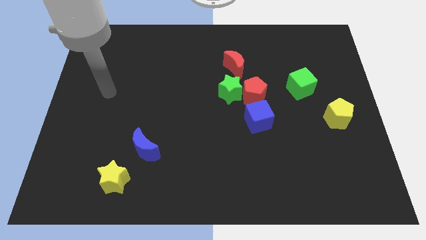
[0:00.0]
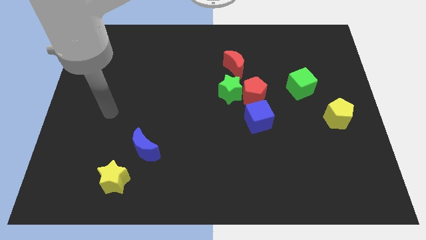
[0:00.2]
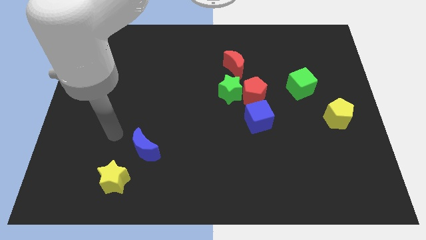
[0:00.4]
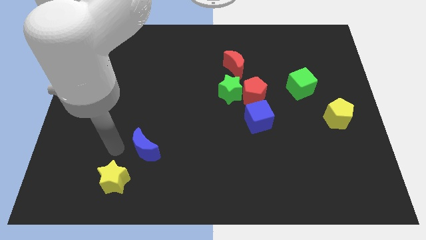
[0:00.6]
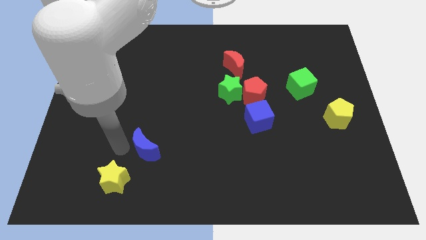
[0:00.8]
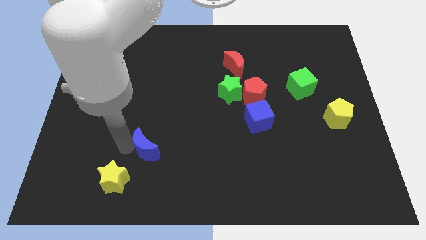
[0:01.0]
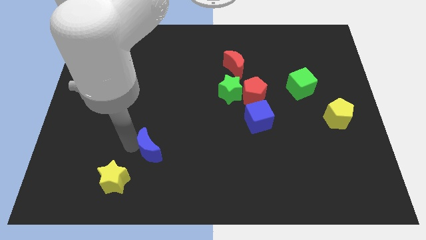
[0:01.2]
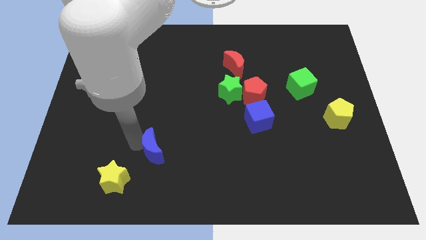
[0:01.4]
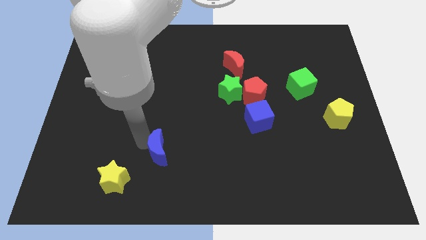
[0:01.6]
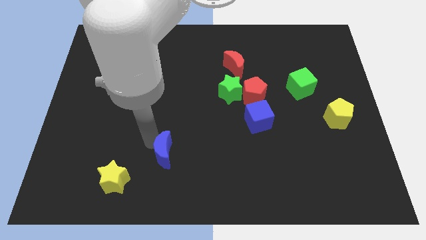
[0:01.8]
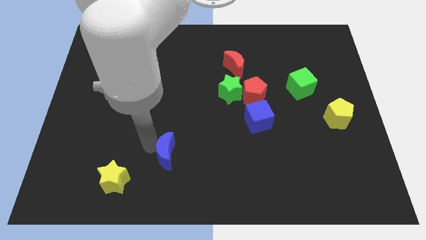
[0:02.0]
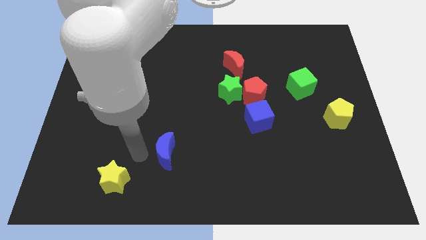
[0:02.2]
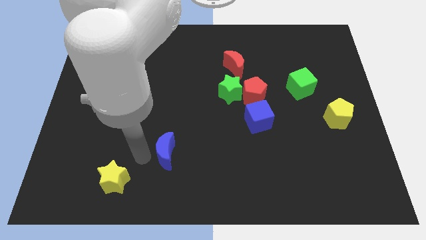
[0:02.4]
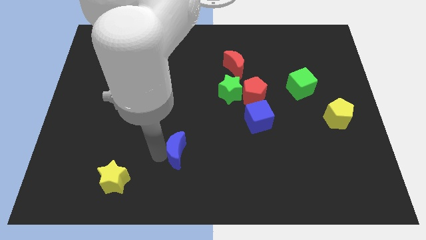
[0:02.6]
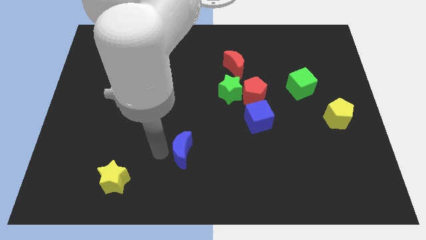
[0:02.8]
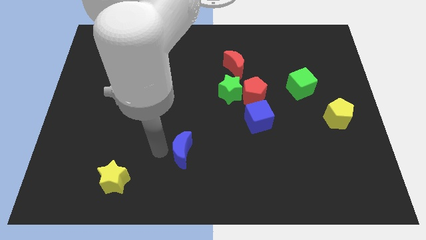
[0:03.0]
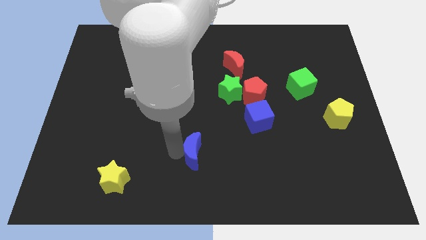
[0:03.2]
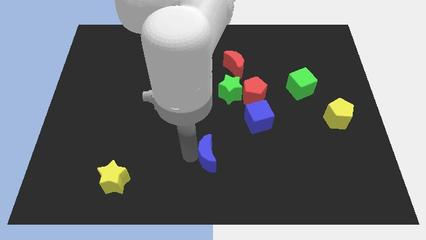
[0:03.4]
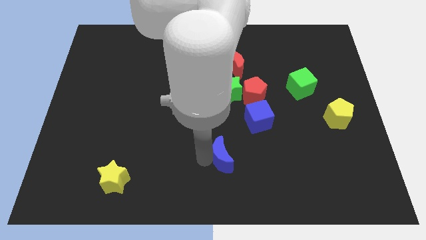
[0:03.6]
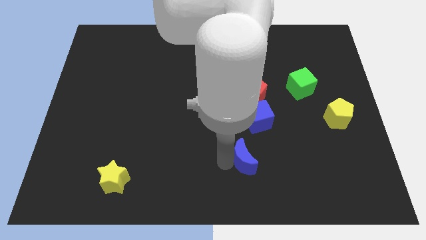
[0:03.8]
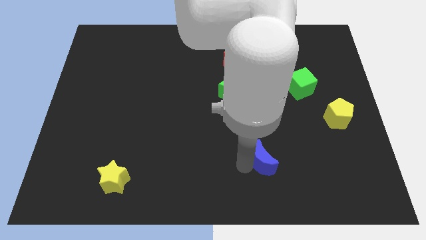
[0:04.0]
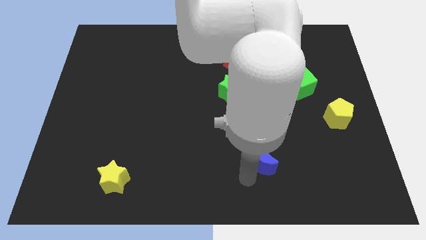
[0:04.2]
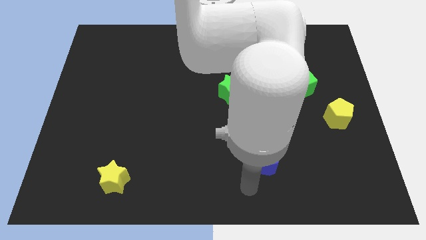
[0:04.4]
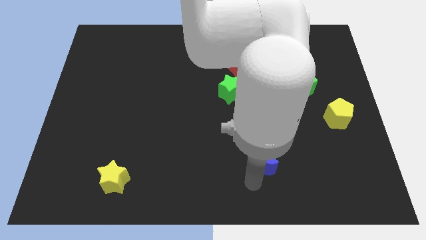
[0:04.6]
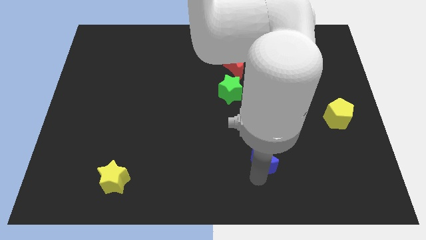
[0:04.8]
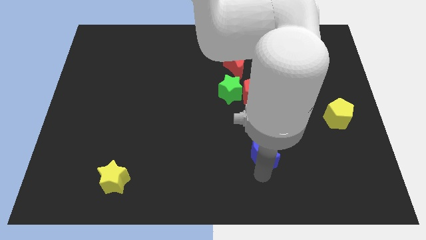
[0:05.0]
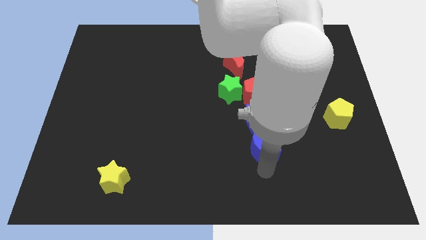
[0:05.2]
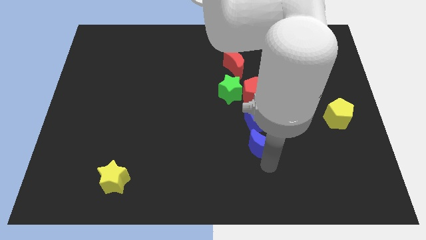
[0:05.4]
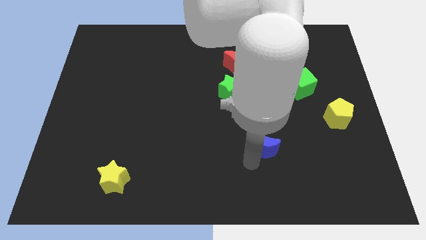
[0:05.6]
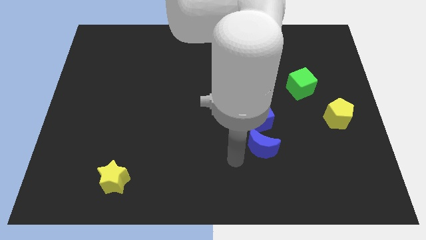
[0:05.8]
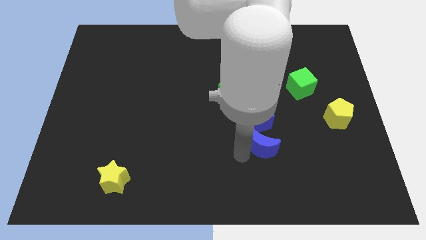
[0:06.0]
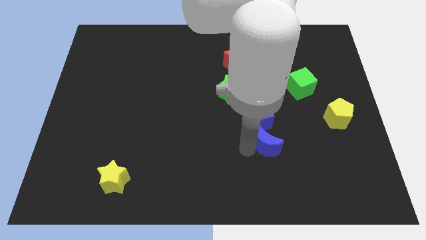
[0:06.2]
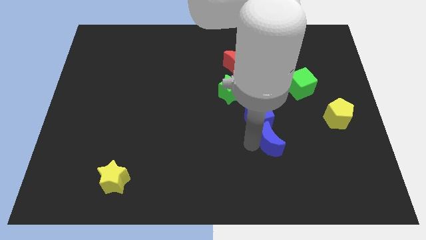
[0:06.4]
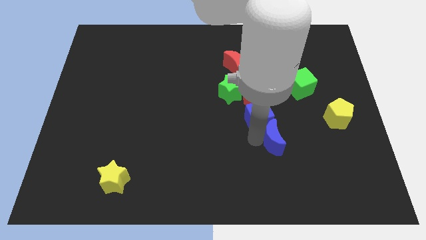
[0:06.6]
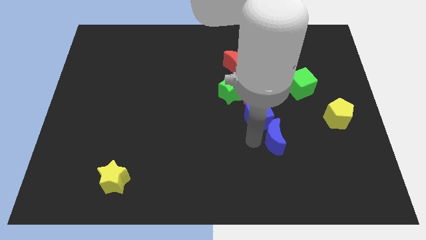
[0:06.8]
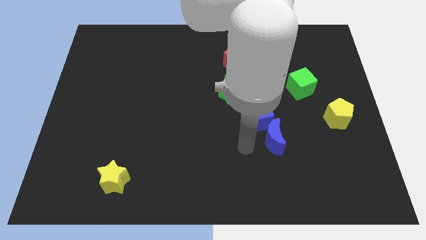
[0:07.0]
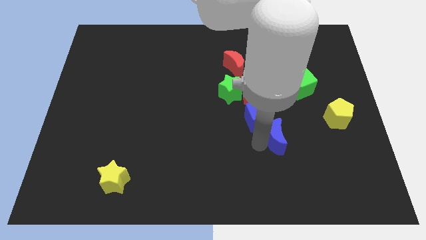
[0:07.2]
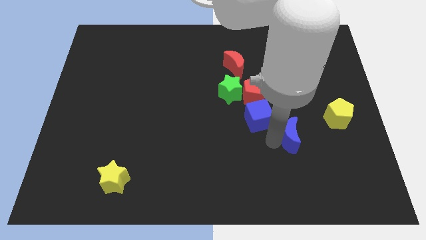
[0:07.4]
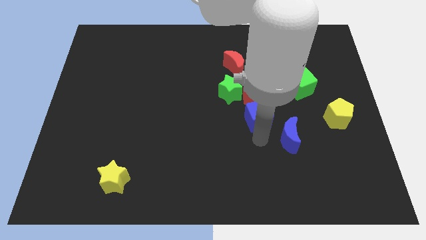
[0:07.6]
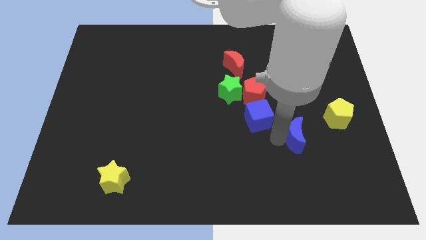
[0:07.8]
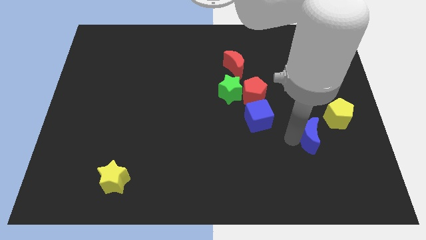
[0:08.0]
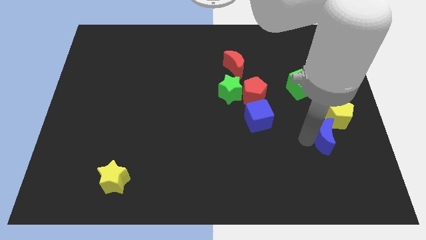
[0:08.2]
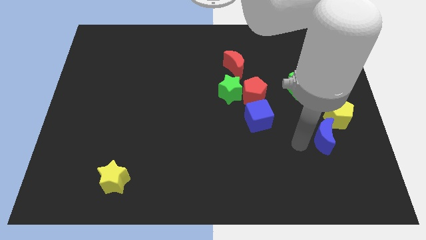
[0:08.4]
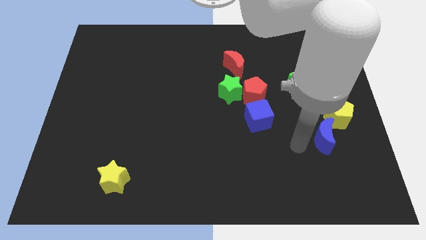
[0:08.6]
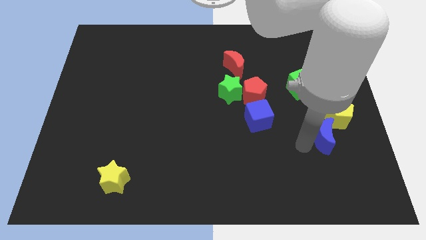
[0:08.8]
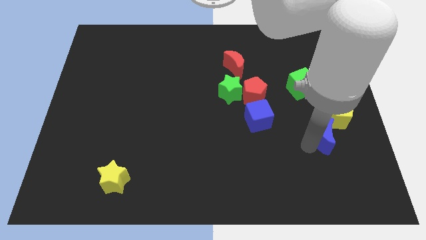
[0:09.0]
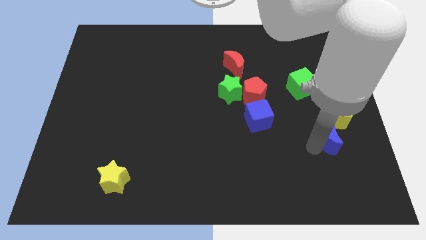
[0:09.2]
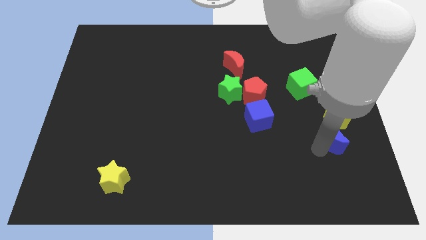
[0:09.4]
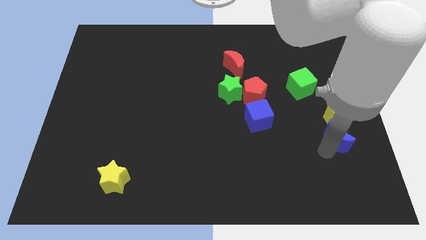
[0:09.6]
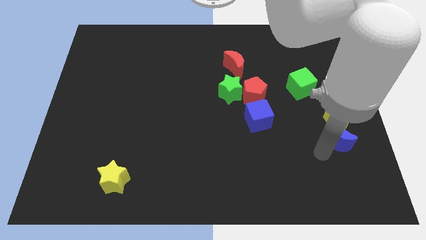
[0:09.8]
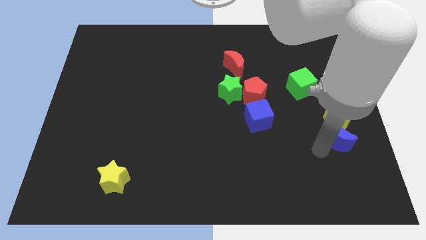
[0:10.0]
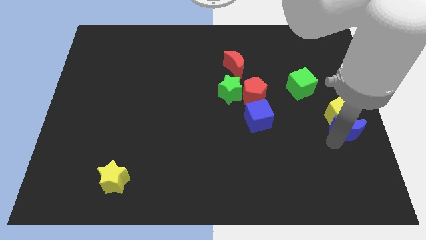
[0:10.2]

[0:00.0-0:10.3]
slide the blue moon to the right side

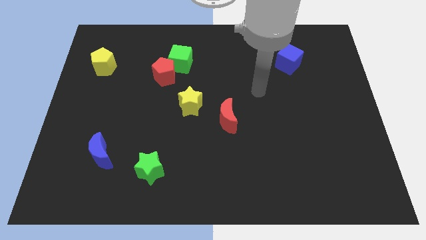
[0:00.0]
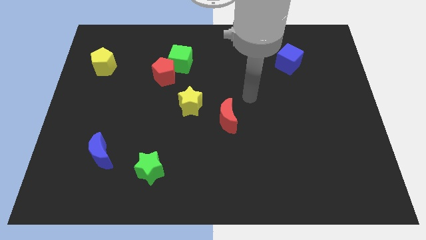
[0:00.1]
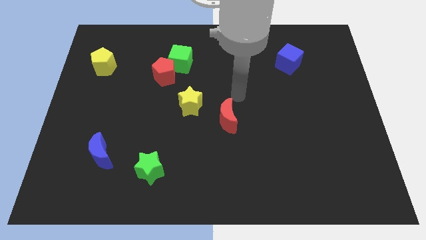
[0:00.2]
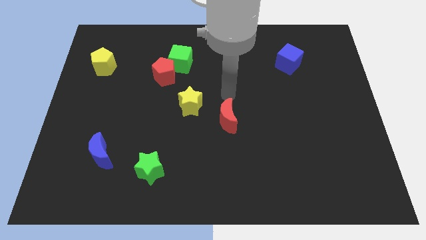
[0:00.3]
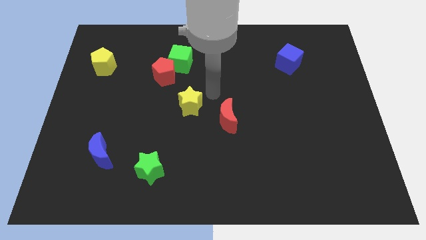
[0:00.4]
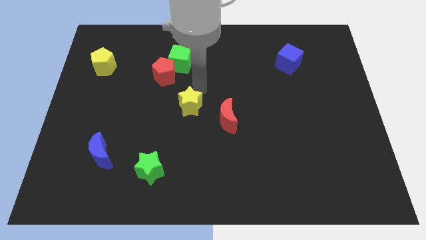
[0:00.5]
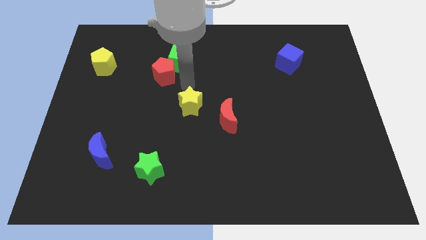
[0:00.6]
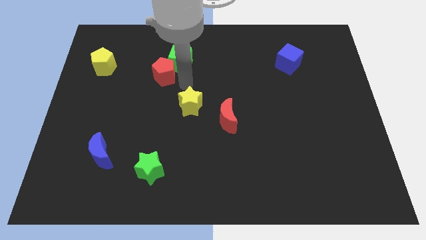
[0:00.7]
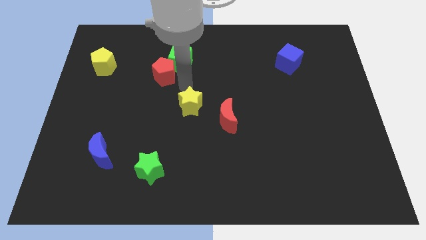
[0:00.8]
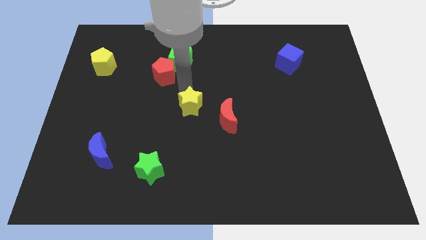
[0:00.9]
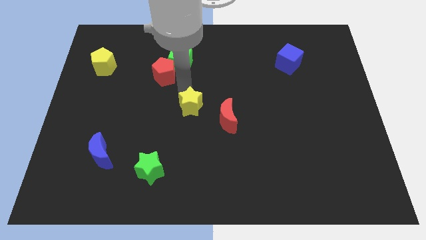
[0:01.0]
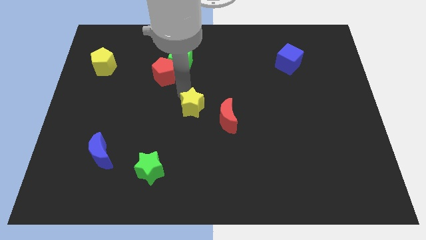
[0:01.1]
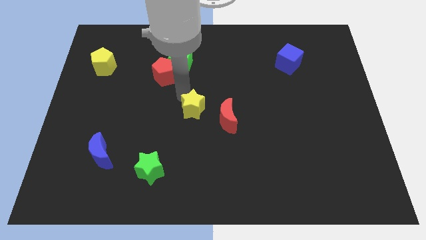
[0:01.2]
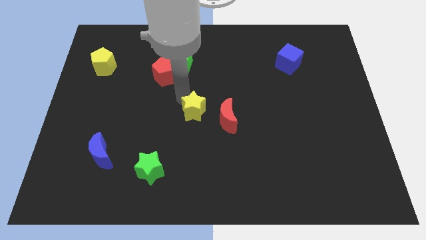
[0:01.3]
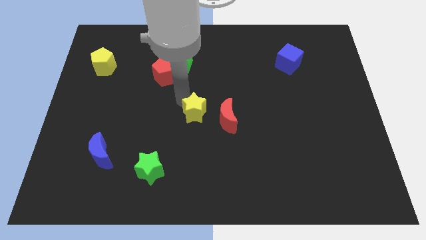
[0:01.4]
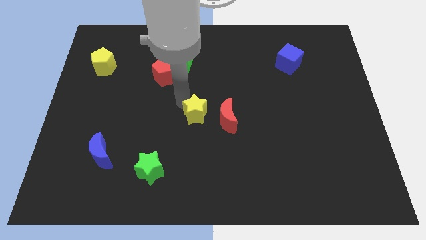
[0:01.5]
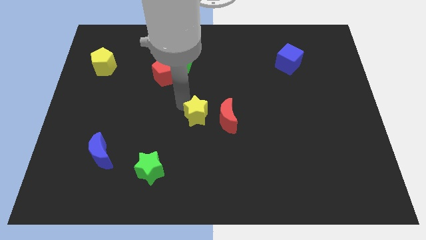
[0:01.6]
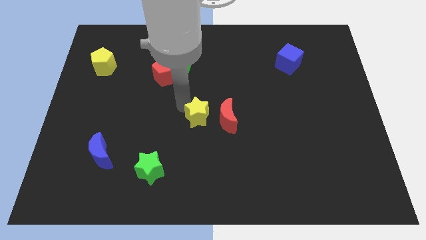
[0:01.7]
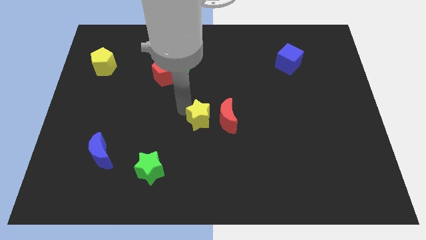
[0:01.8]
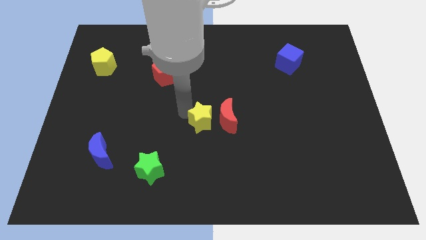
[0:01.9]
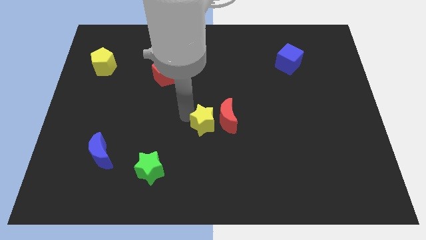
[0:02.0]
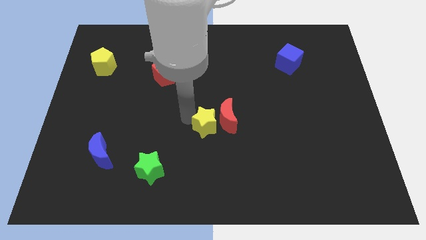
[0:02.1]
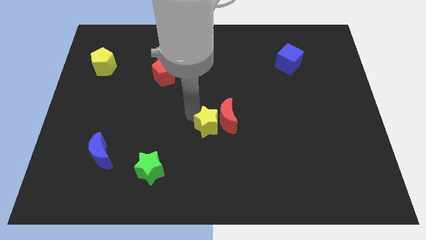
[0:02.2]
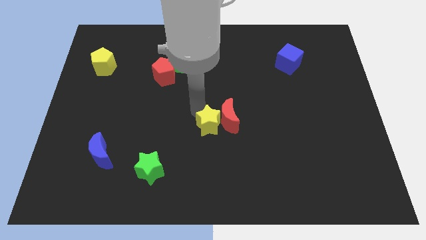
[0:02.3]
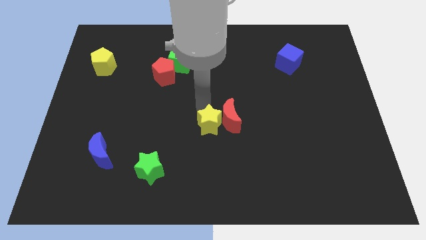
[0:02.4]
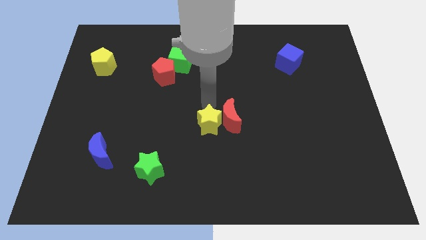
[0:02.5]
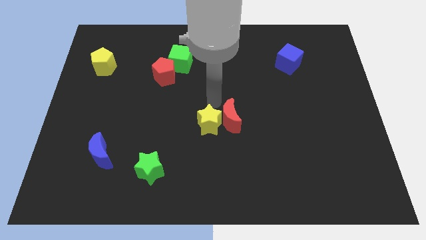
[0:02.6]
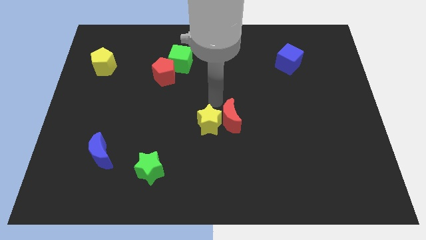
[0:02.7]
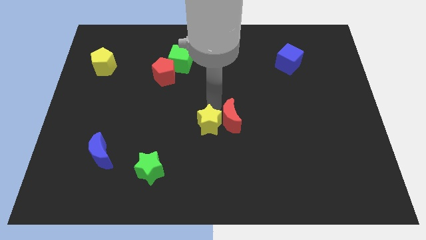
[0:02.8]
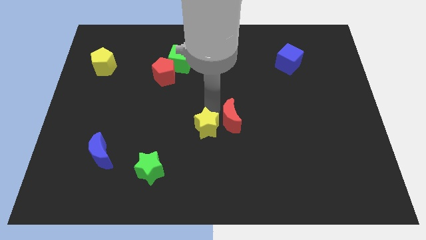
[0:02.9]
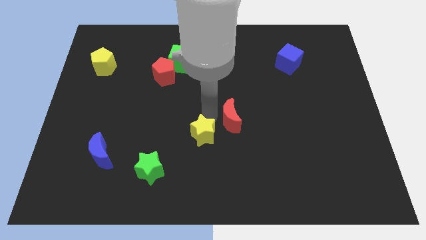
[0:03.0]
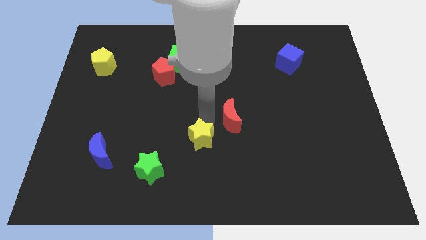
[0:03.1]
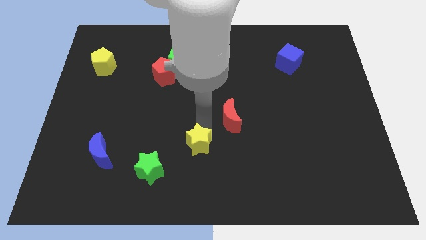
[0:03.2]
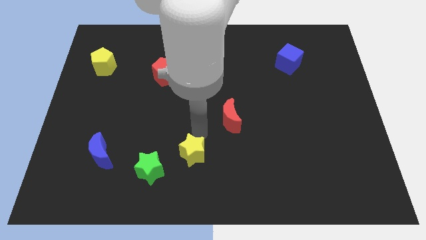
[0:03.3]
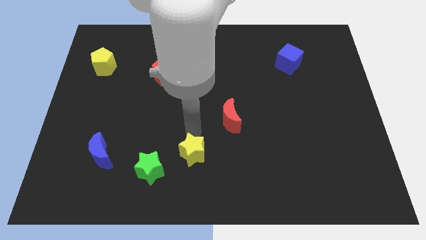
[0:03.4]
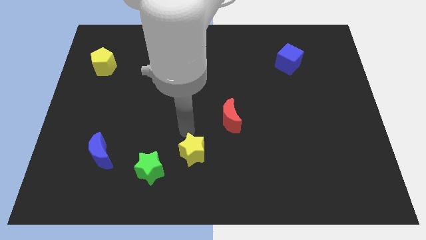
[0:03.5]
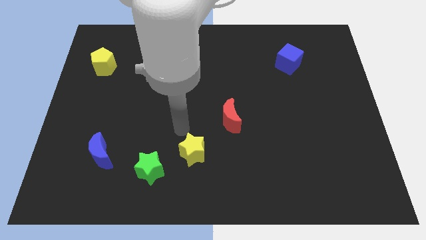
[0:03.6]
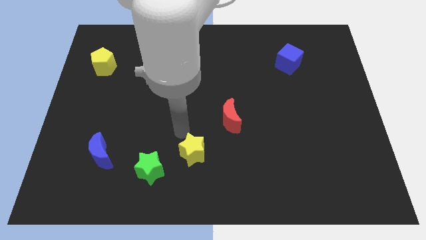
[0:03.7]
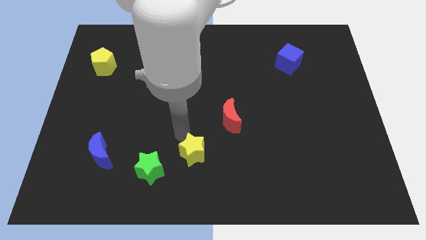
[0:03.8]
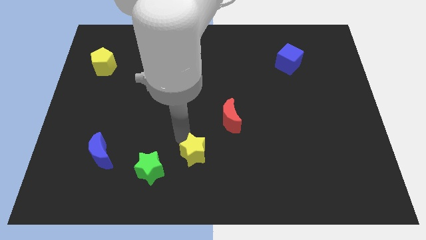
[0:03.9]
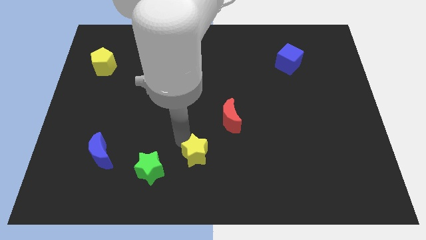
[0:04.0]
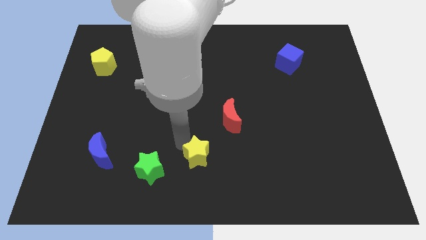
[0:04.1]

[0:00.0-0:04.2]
push the yellow star to the bottom side
